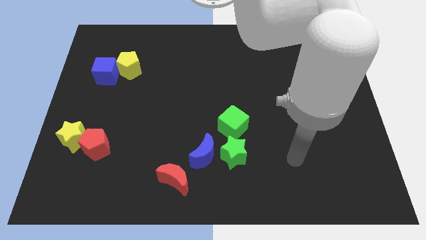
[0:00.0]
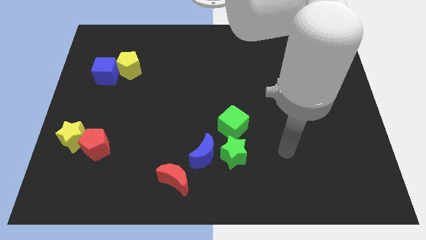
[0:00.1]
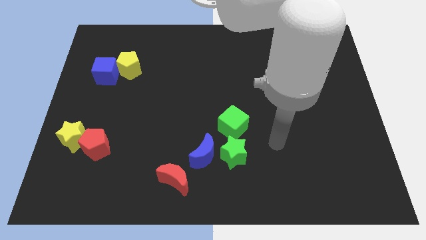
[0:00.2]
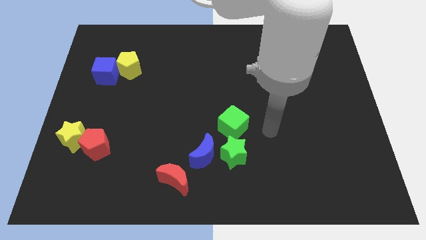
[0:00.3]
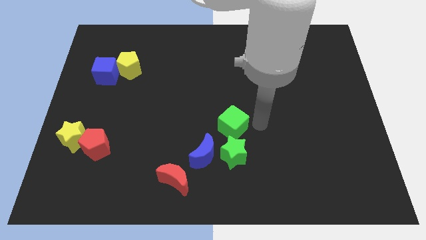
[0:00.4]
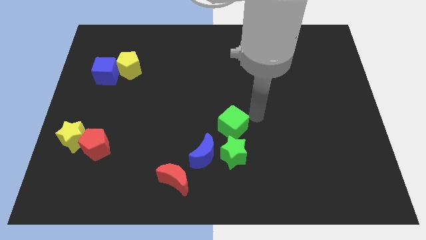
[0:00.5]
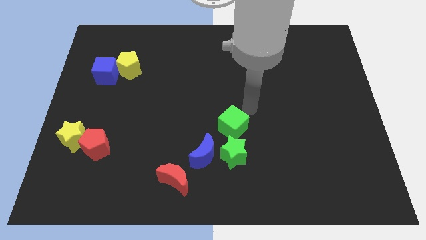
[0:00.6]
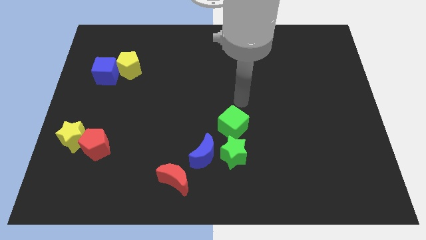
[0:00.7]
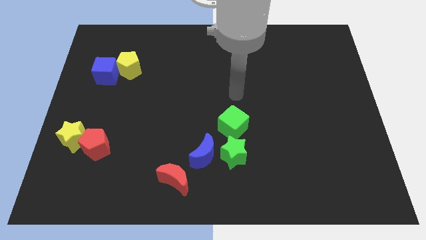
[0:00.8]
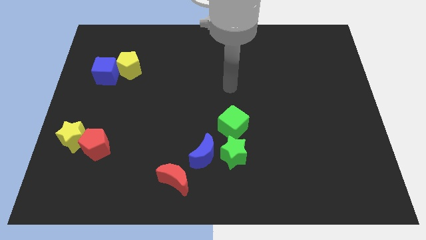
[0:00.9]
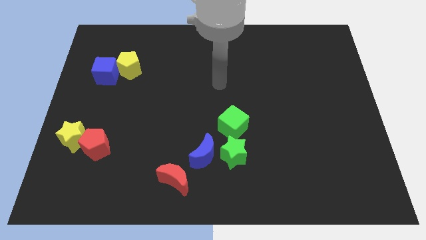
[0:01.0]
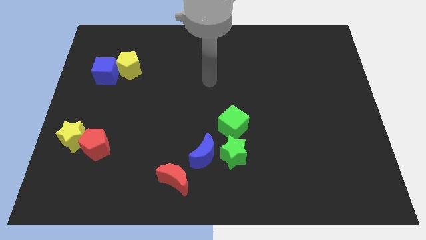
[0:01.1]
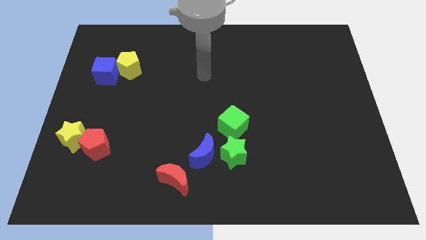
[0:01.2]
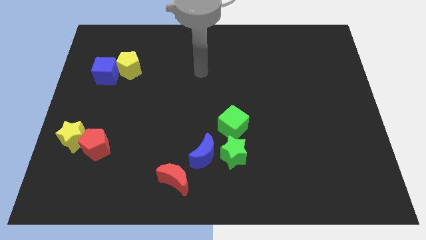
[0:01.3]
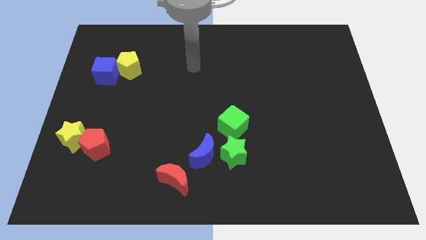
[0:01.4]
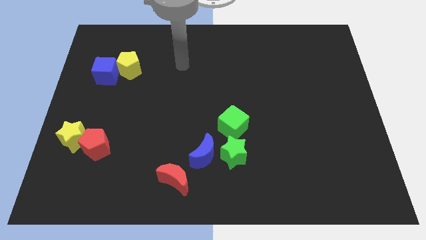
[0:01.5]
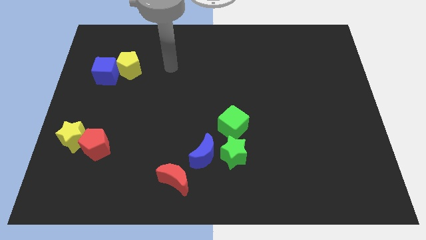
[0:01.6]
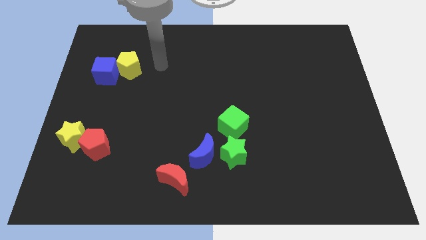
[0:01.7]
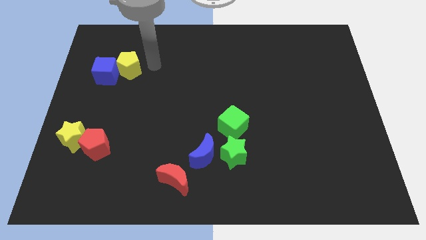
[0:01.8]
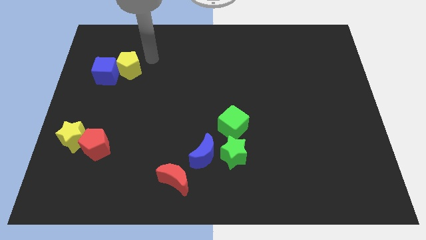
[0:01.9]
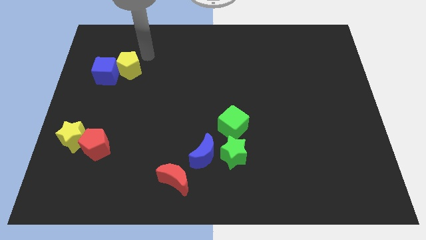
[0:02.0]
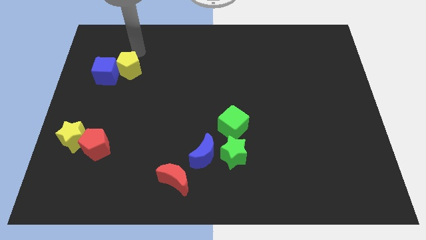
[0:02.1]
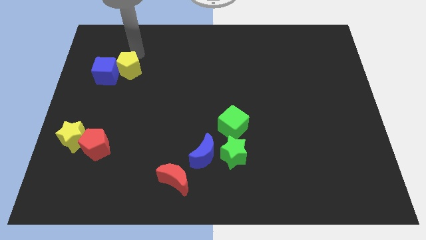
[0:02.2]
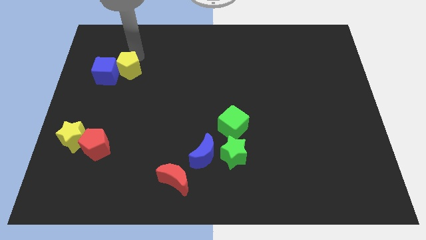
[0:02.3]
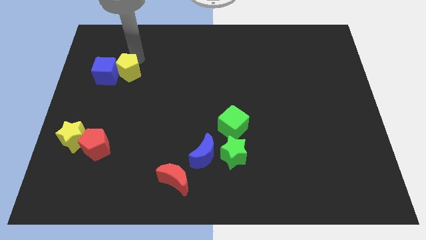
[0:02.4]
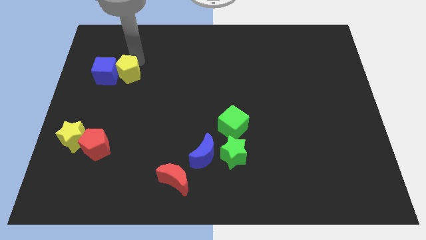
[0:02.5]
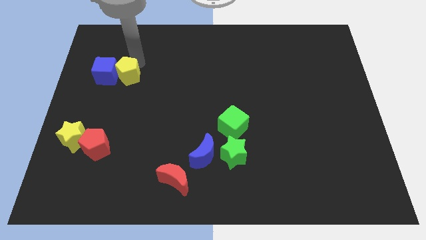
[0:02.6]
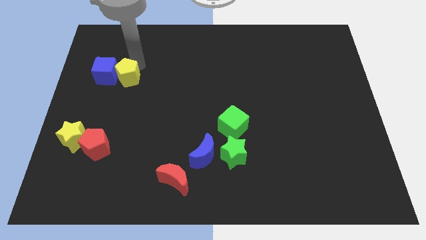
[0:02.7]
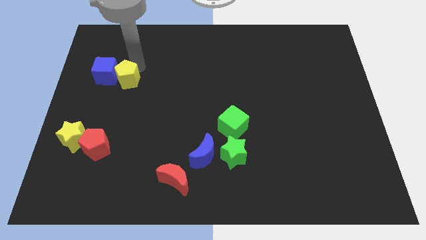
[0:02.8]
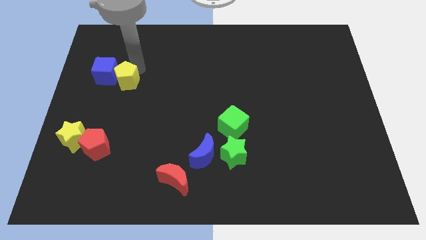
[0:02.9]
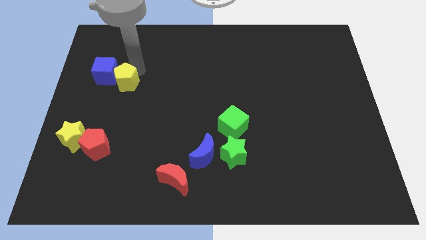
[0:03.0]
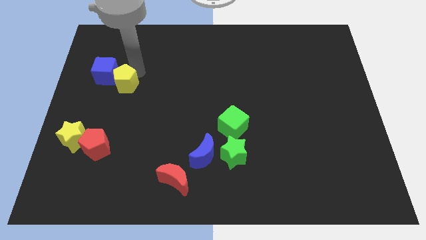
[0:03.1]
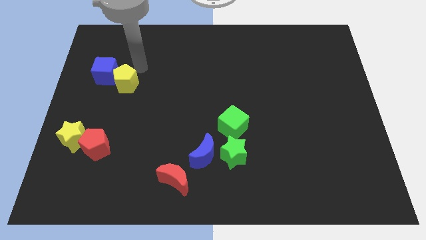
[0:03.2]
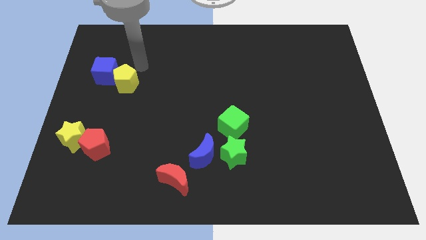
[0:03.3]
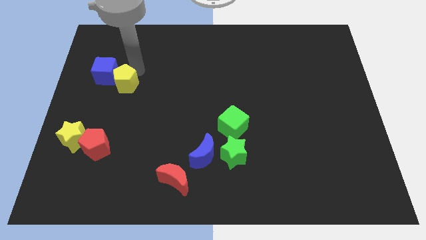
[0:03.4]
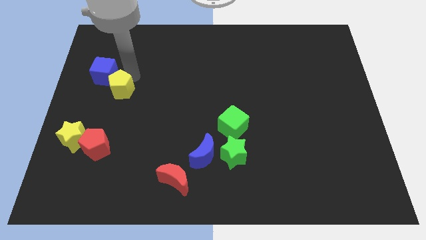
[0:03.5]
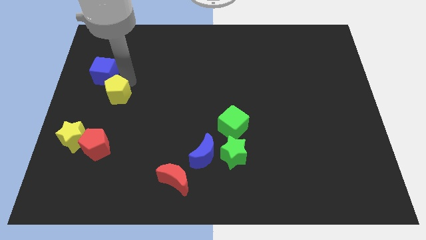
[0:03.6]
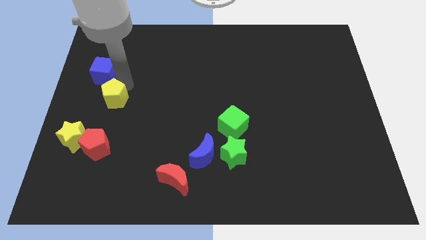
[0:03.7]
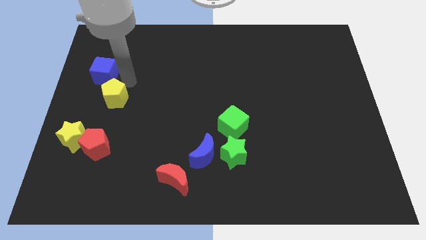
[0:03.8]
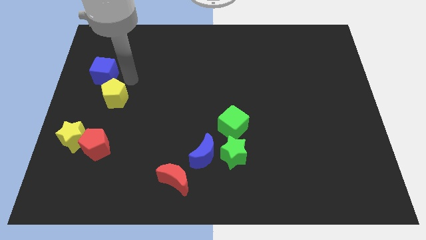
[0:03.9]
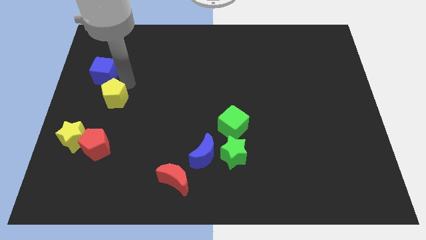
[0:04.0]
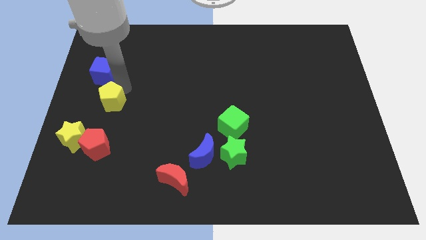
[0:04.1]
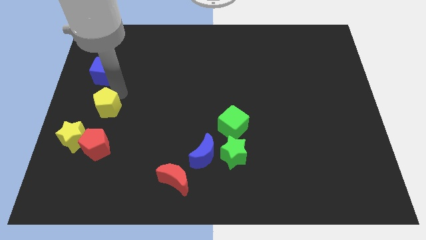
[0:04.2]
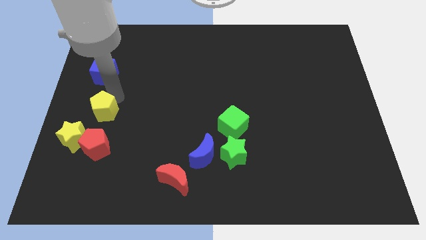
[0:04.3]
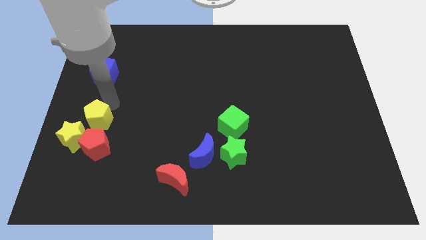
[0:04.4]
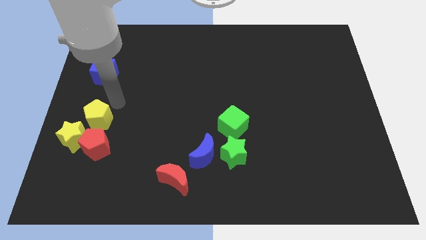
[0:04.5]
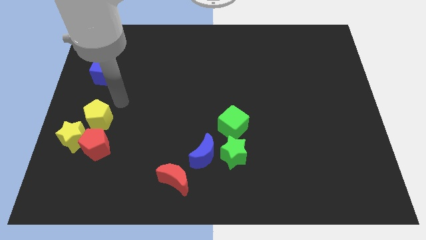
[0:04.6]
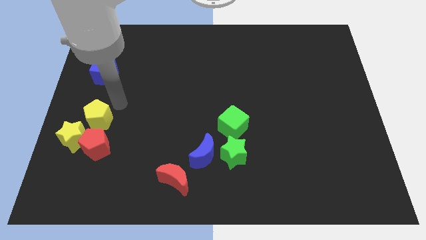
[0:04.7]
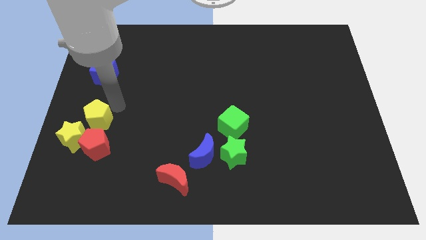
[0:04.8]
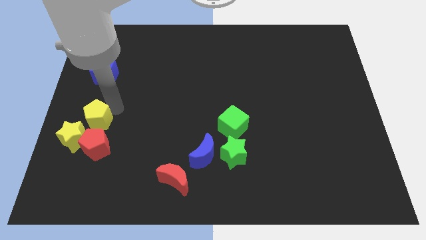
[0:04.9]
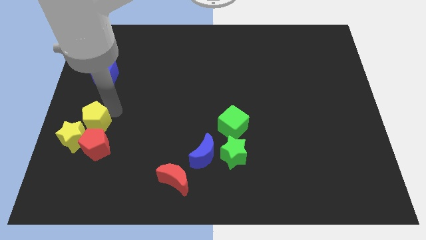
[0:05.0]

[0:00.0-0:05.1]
push the yellow pentagon close to the yellow star
